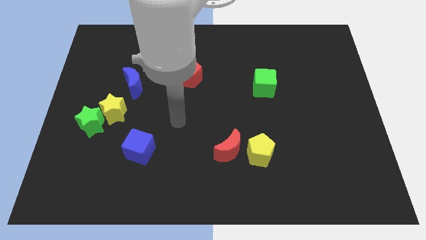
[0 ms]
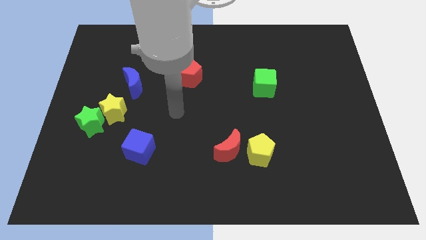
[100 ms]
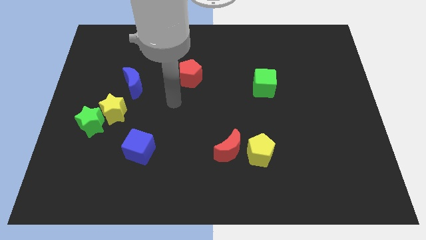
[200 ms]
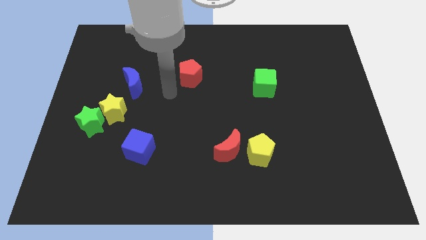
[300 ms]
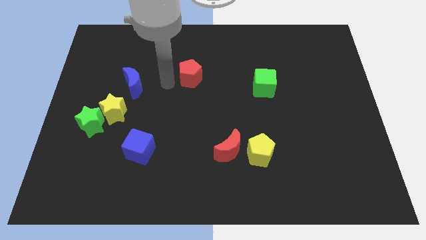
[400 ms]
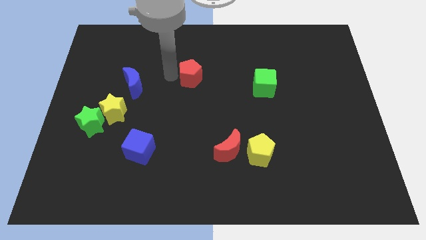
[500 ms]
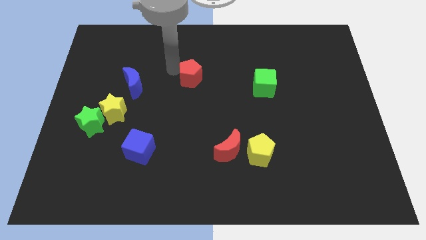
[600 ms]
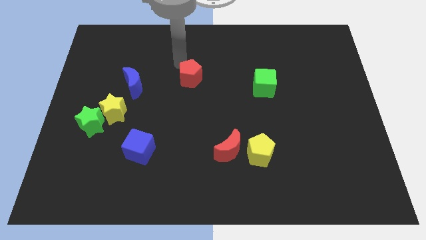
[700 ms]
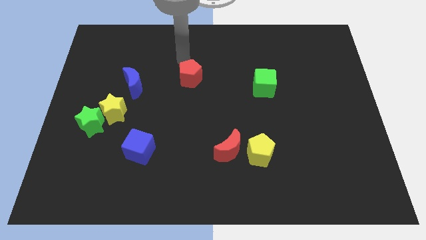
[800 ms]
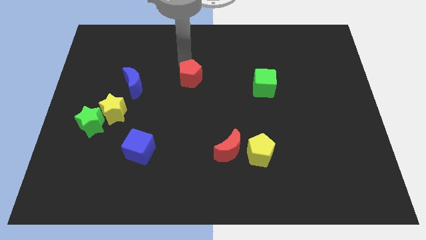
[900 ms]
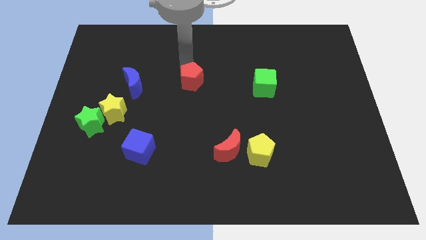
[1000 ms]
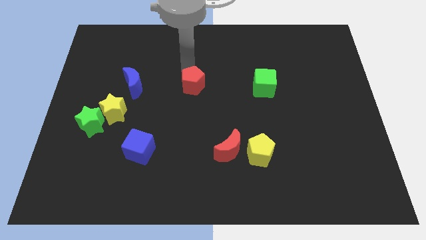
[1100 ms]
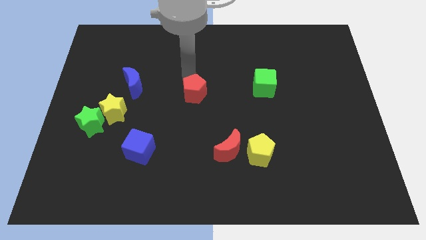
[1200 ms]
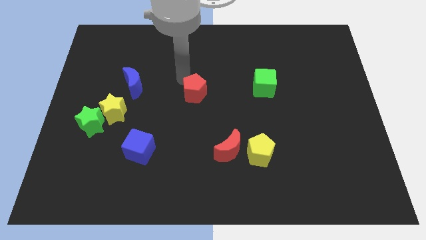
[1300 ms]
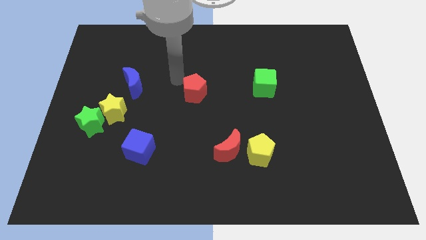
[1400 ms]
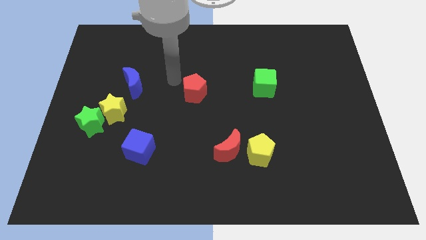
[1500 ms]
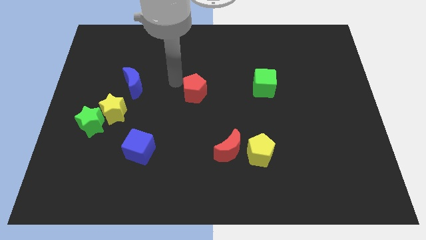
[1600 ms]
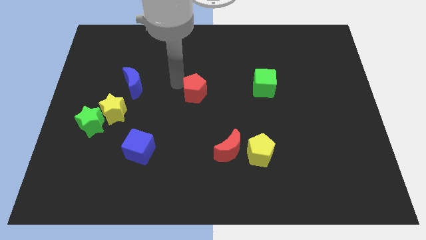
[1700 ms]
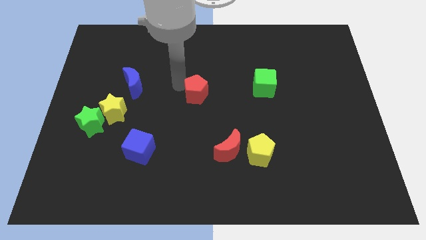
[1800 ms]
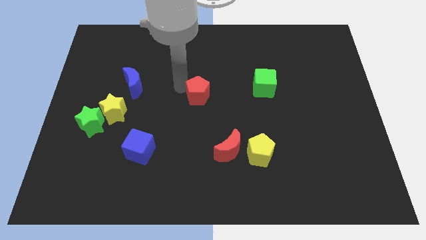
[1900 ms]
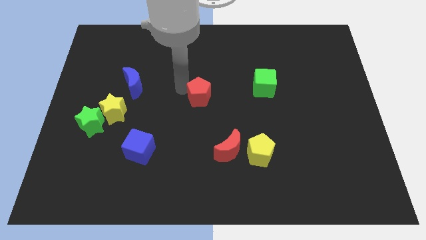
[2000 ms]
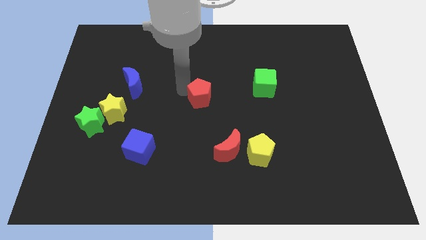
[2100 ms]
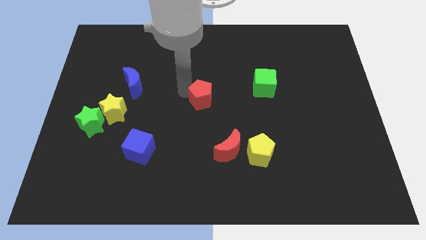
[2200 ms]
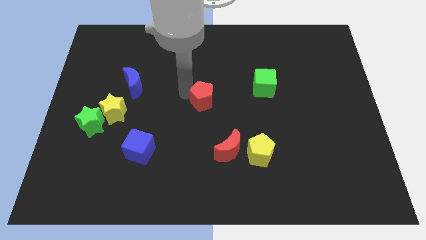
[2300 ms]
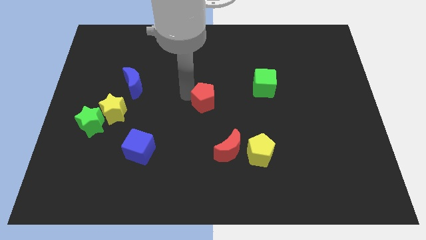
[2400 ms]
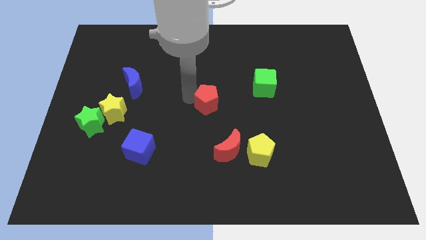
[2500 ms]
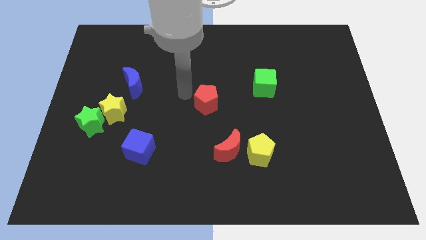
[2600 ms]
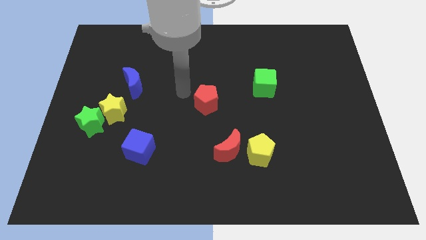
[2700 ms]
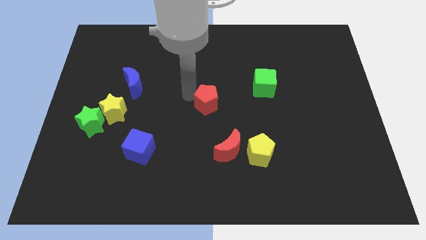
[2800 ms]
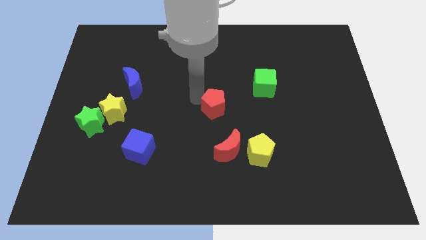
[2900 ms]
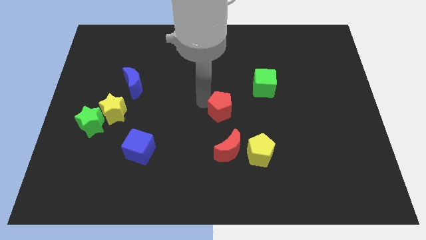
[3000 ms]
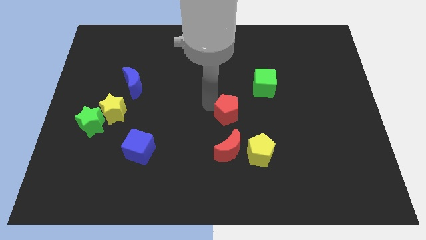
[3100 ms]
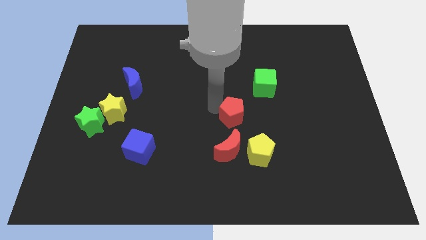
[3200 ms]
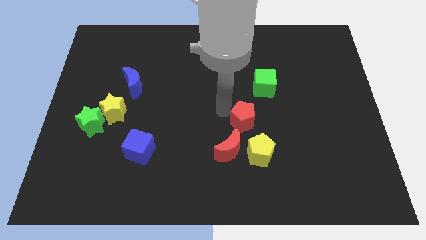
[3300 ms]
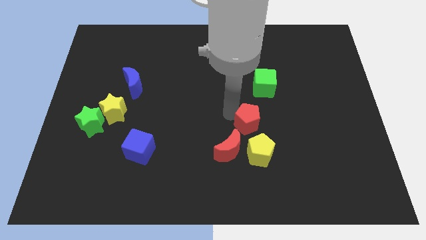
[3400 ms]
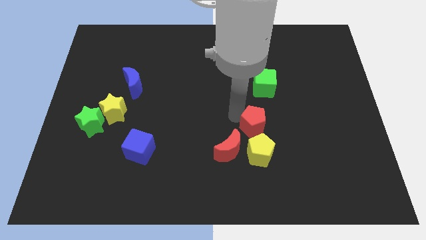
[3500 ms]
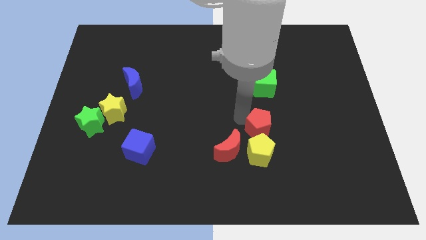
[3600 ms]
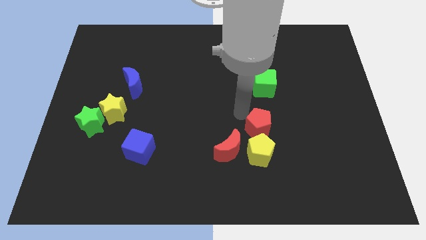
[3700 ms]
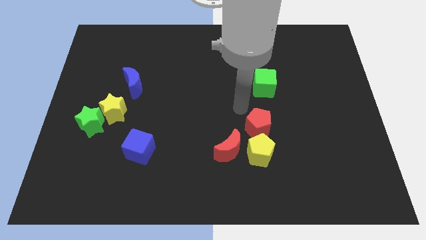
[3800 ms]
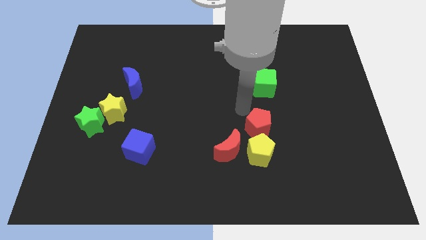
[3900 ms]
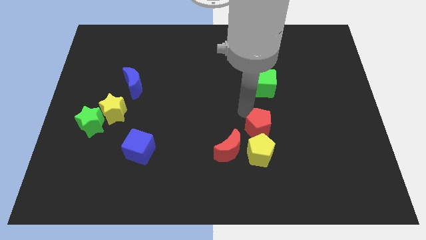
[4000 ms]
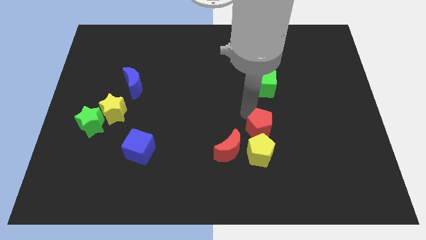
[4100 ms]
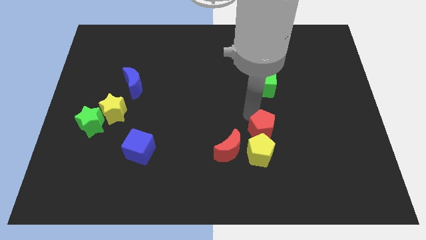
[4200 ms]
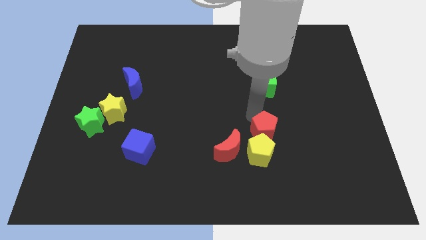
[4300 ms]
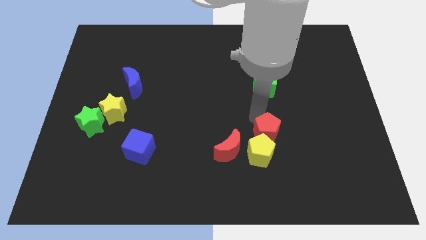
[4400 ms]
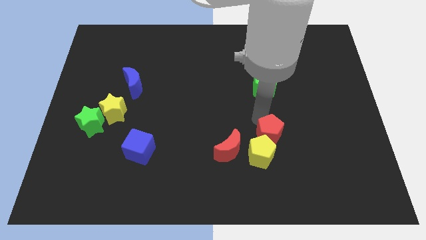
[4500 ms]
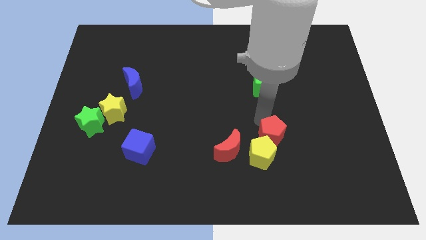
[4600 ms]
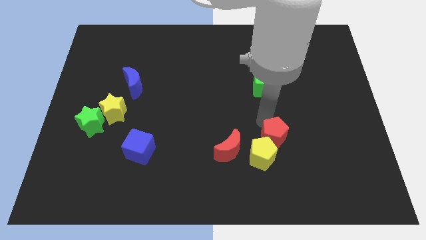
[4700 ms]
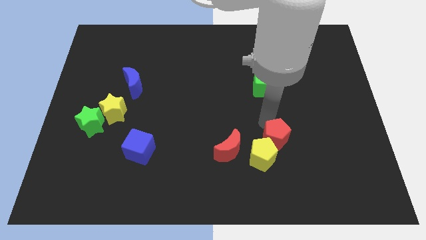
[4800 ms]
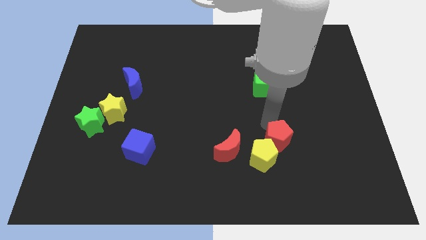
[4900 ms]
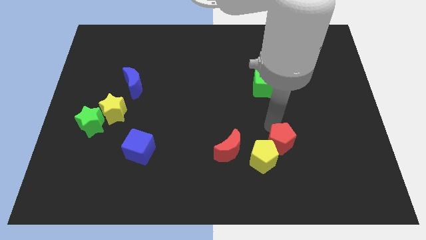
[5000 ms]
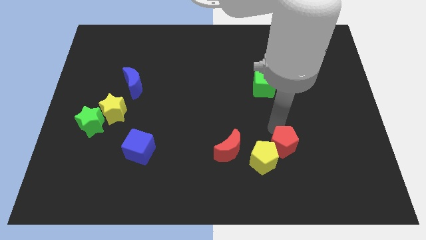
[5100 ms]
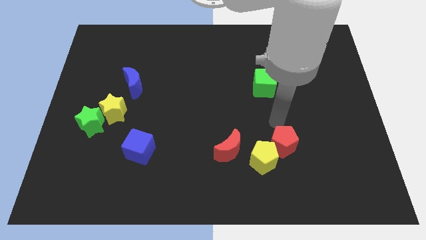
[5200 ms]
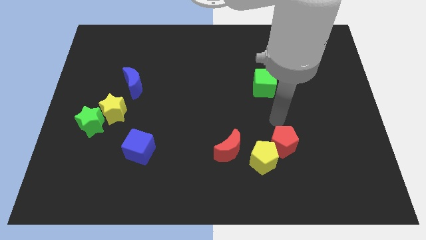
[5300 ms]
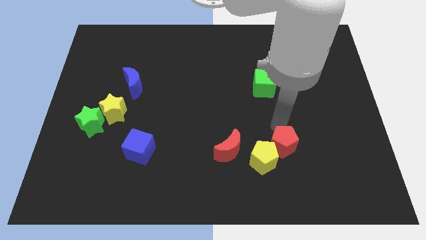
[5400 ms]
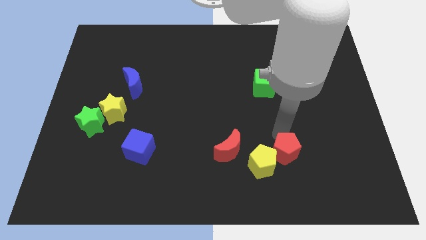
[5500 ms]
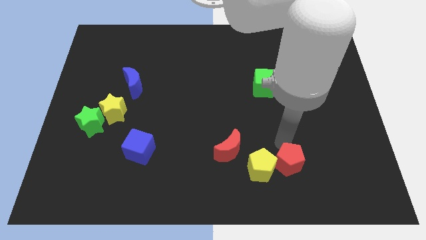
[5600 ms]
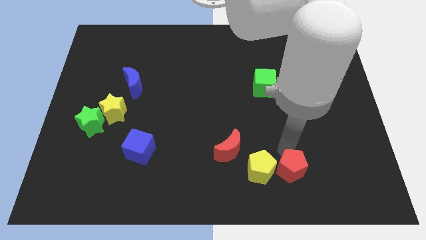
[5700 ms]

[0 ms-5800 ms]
push the red pentagon diagonally down and to the right of the yellow pentagon

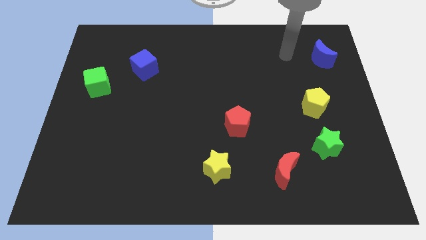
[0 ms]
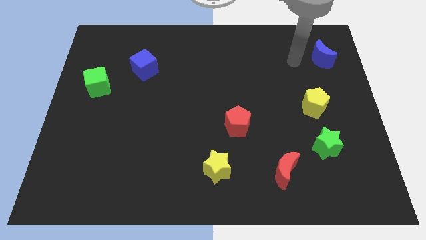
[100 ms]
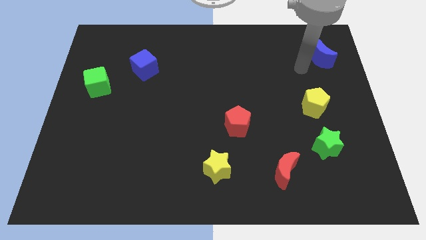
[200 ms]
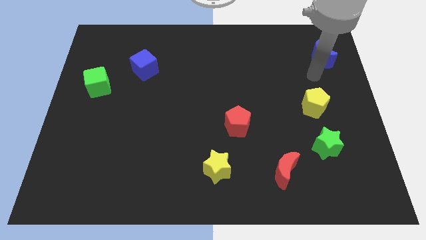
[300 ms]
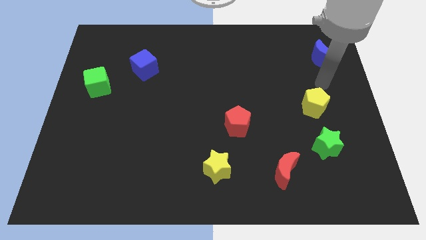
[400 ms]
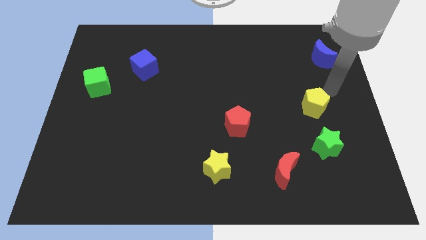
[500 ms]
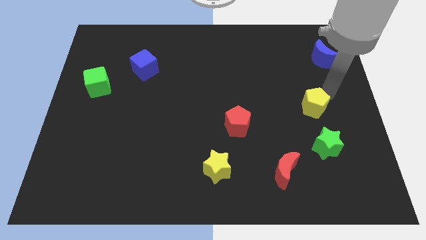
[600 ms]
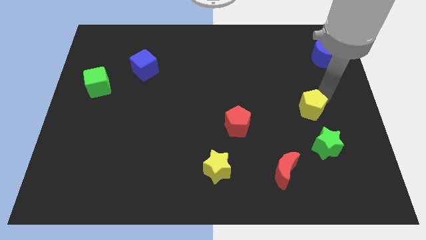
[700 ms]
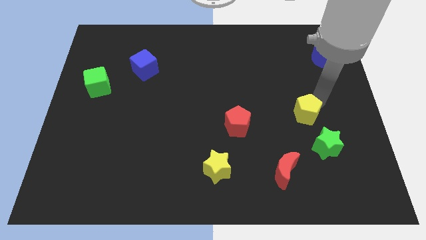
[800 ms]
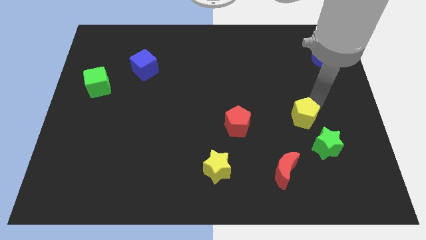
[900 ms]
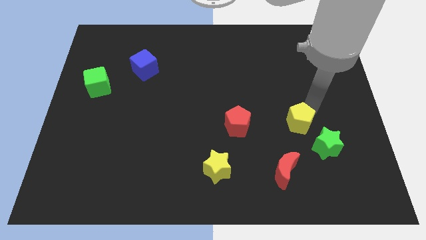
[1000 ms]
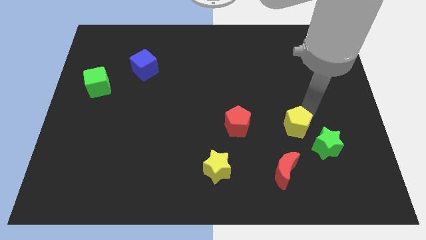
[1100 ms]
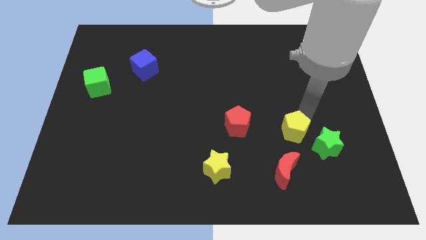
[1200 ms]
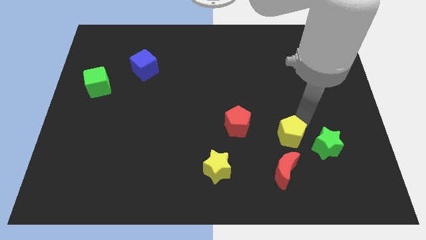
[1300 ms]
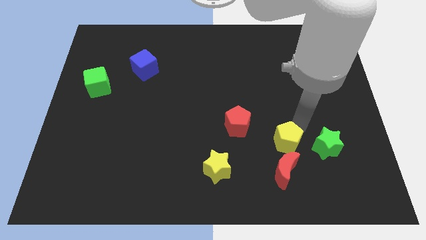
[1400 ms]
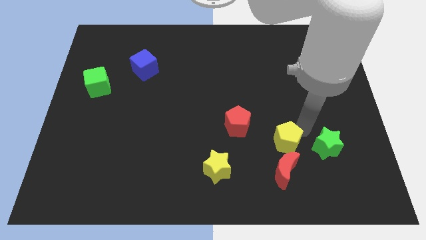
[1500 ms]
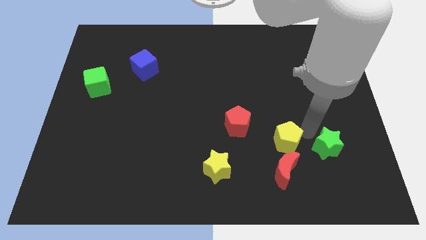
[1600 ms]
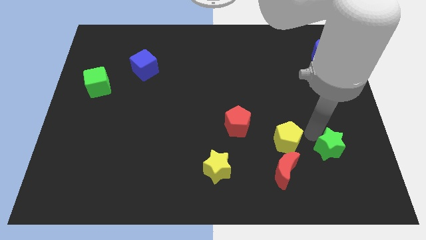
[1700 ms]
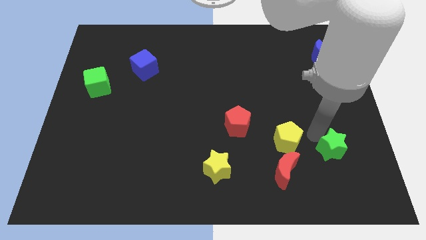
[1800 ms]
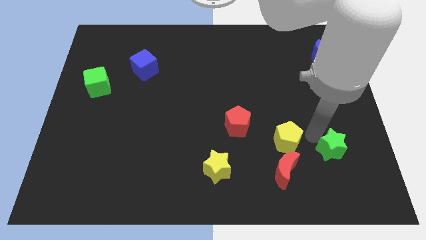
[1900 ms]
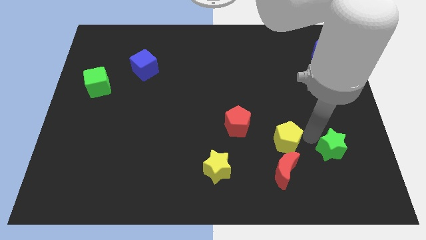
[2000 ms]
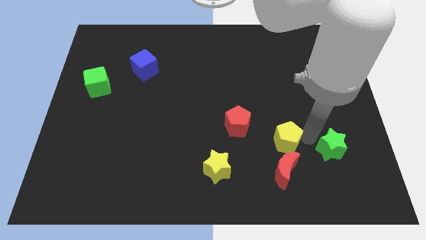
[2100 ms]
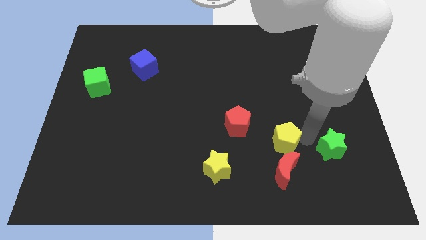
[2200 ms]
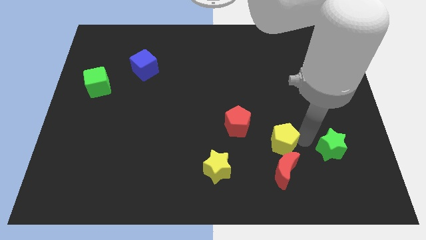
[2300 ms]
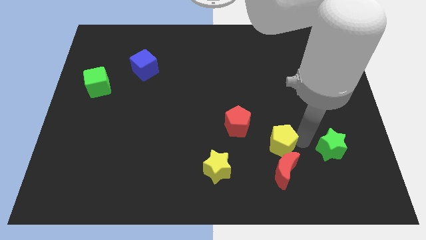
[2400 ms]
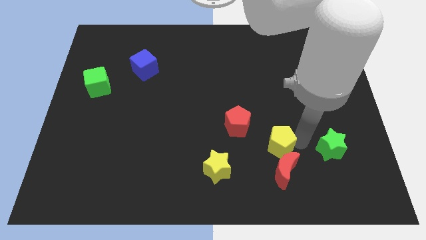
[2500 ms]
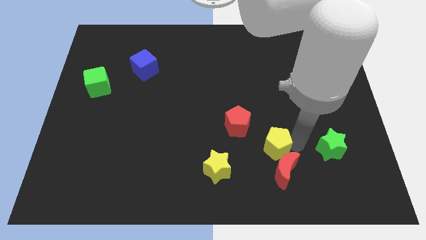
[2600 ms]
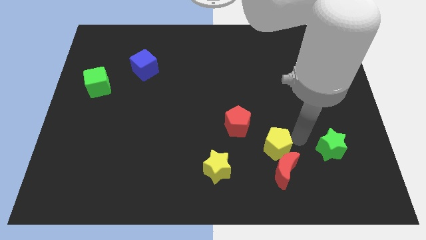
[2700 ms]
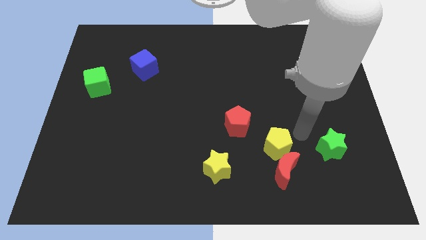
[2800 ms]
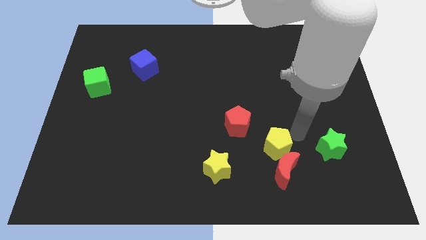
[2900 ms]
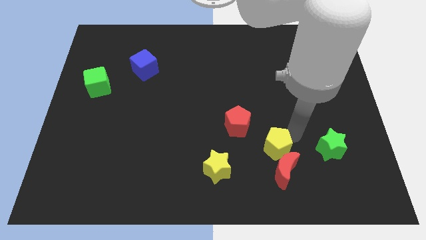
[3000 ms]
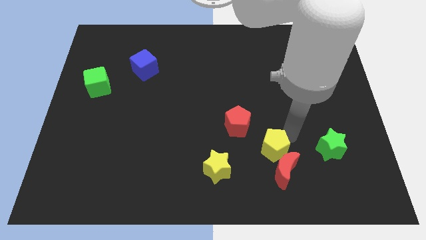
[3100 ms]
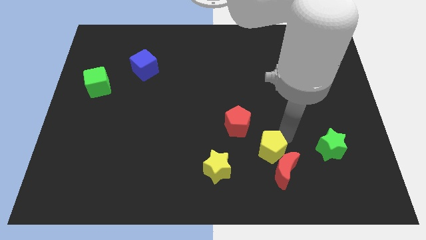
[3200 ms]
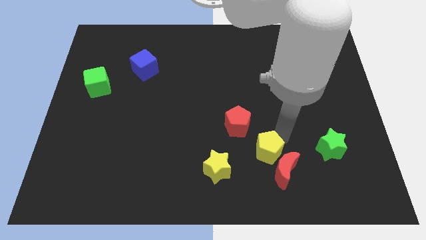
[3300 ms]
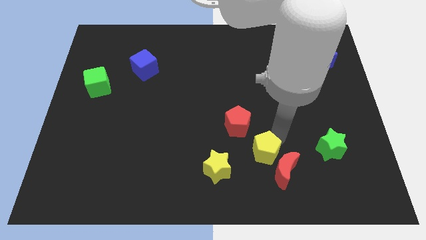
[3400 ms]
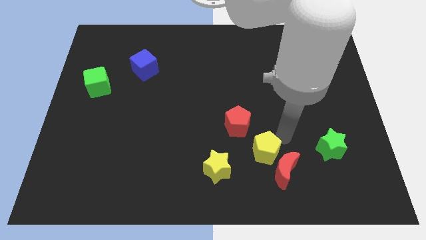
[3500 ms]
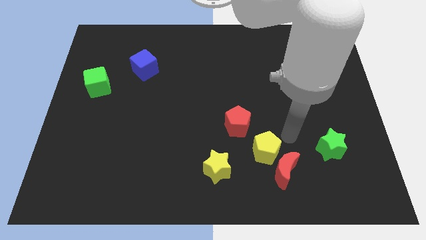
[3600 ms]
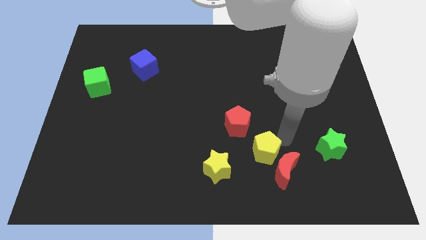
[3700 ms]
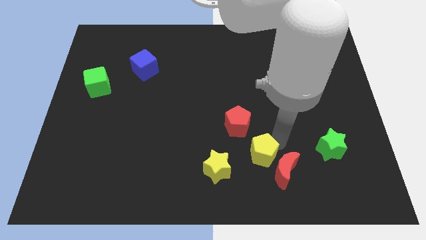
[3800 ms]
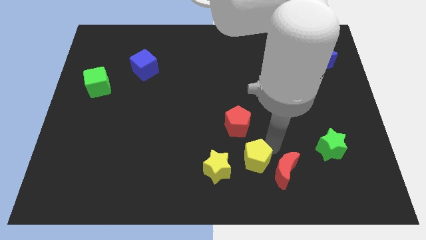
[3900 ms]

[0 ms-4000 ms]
push the yellow pentagon below the red pentagon
